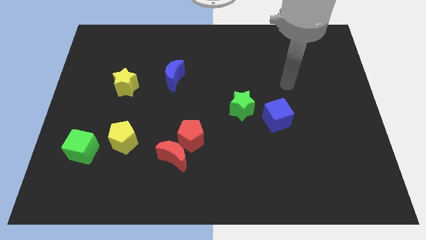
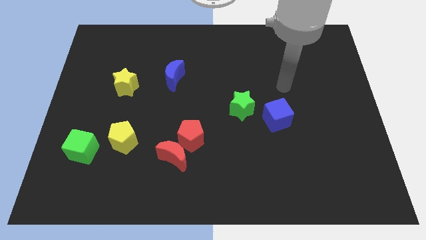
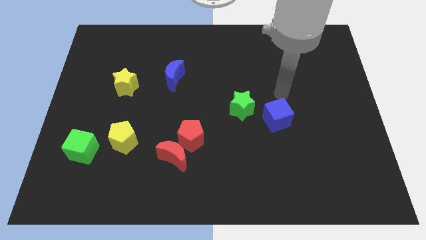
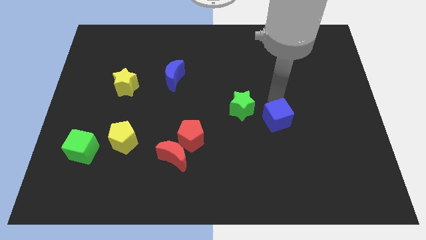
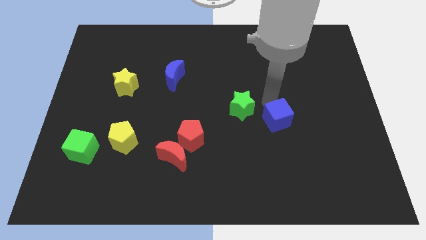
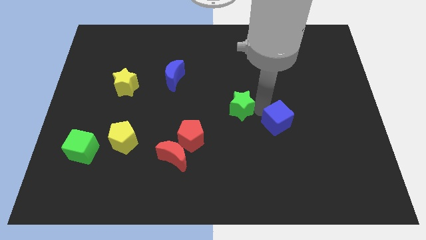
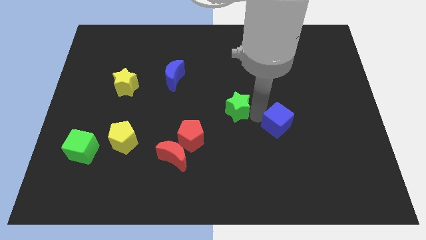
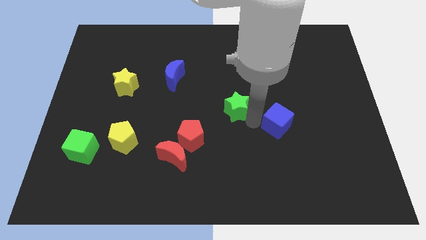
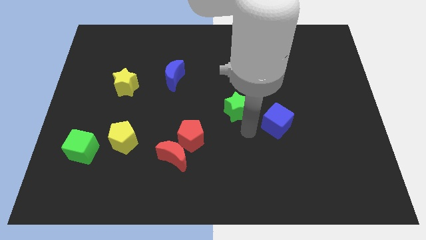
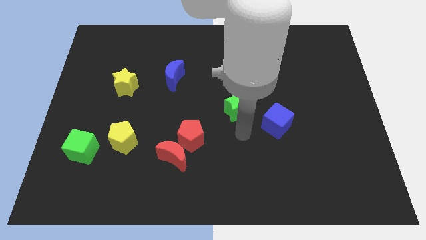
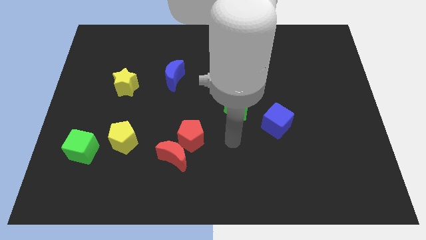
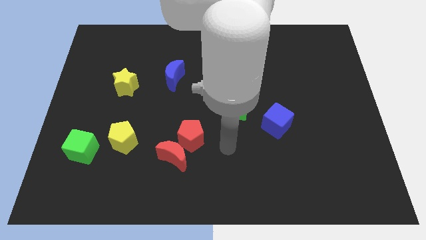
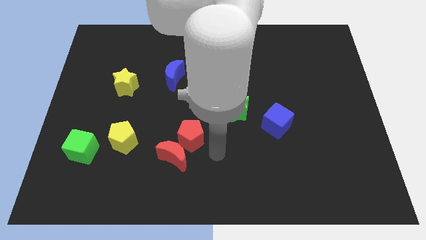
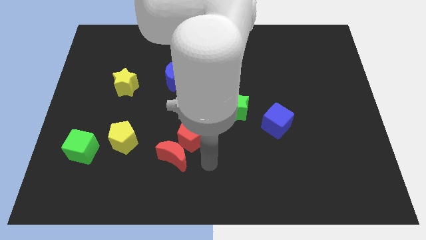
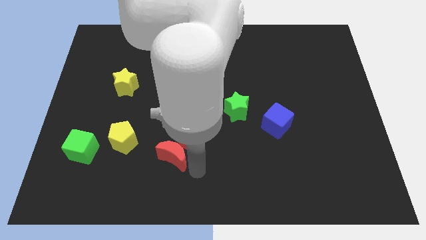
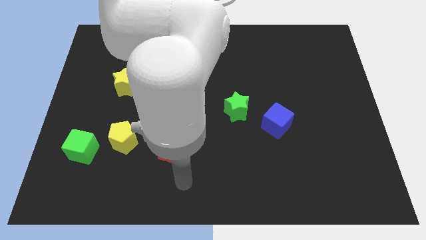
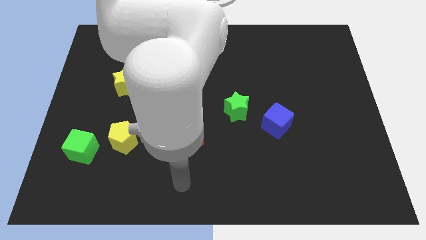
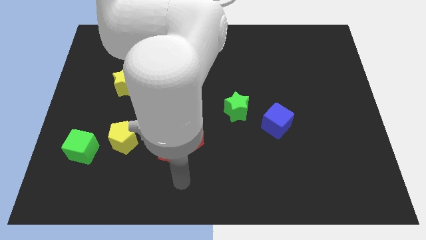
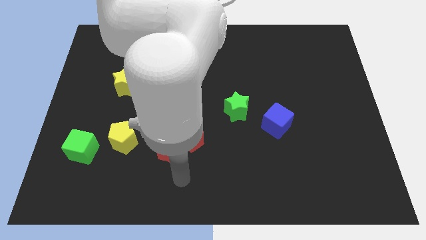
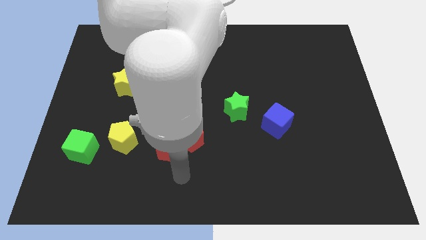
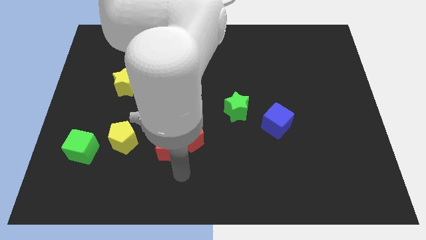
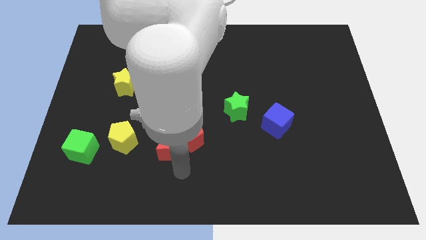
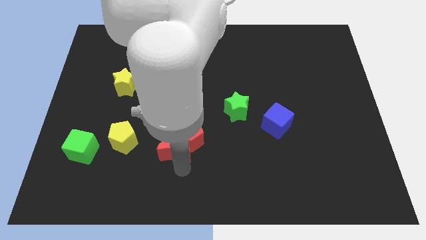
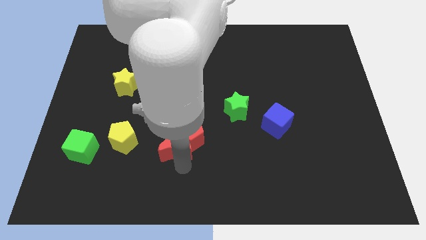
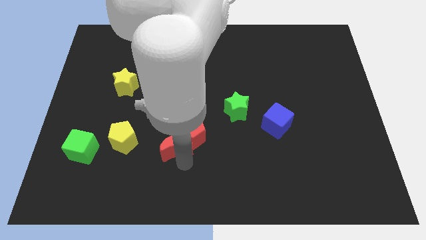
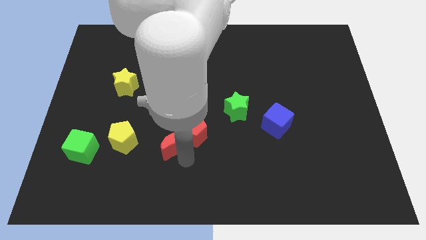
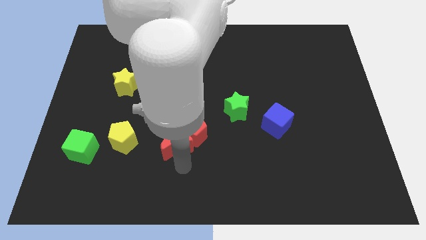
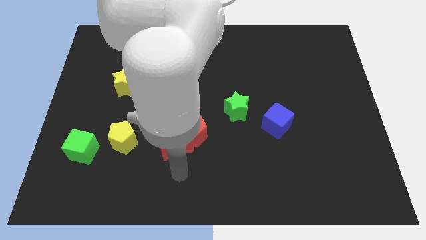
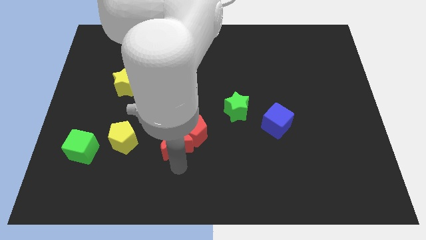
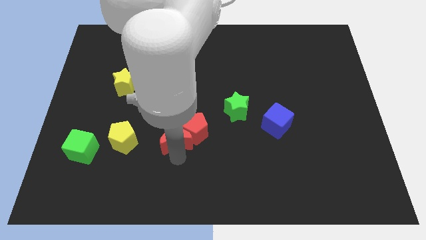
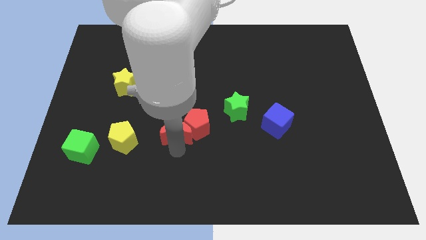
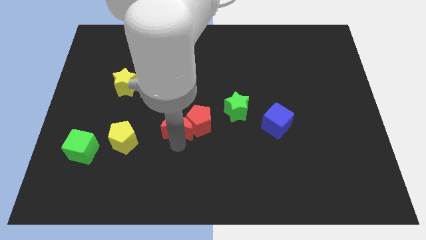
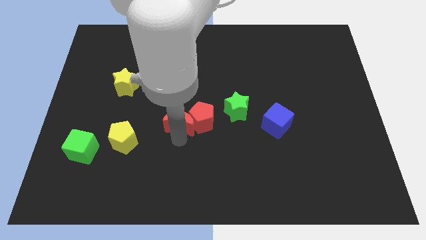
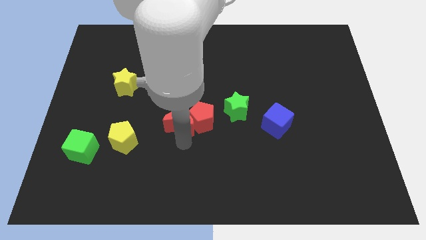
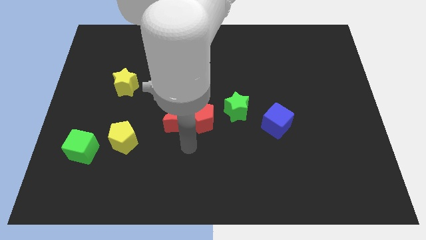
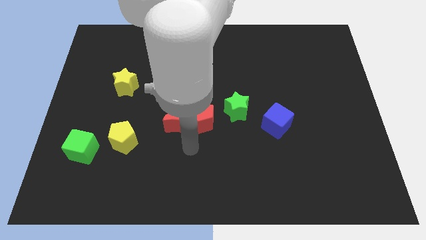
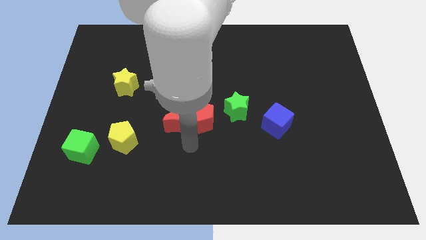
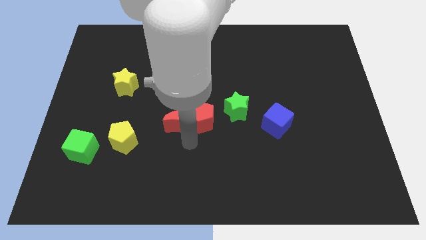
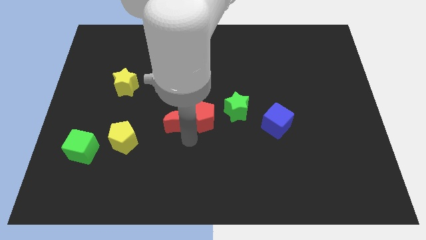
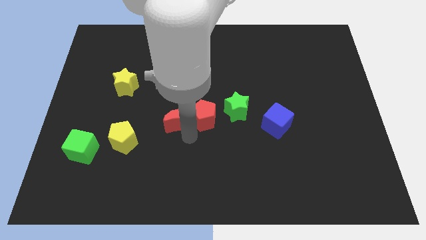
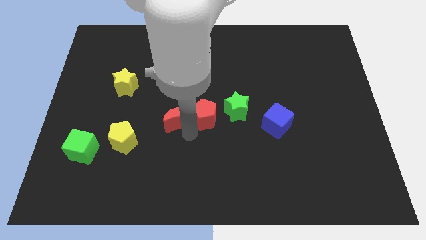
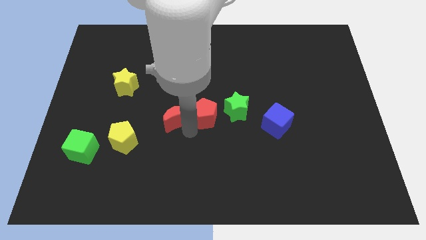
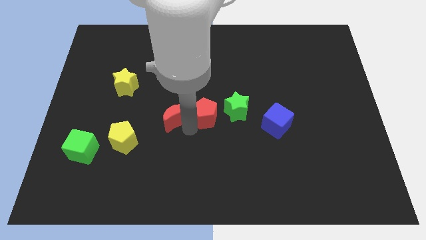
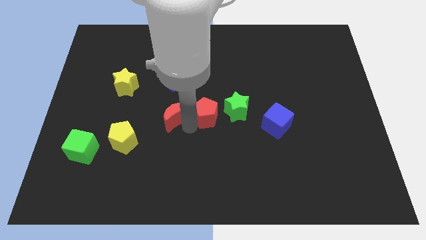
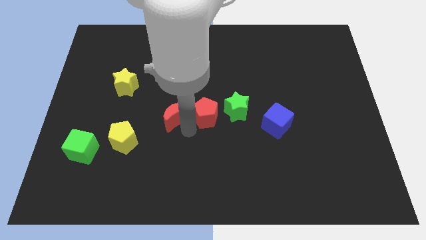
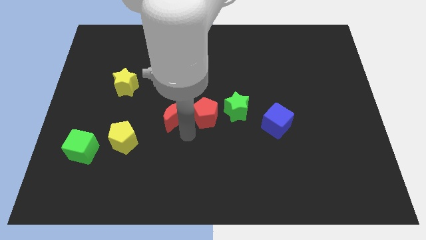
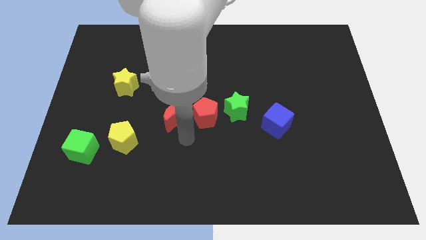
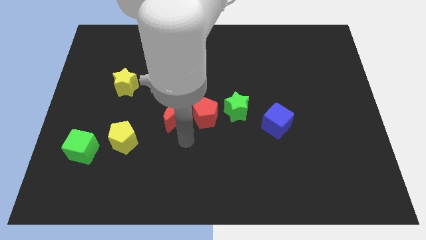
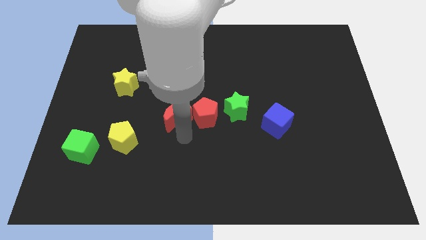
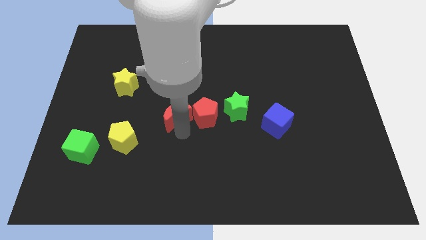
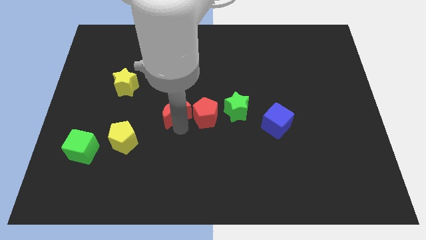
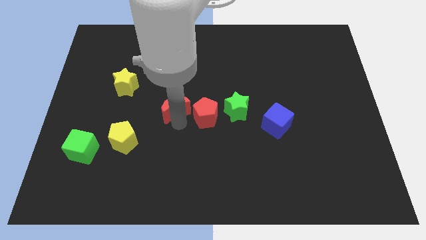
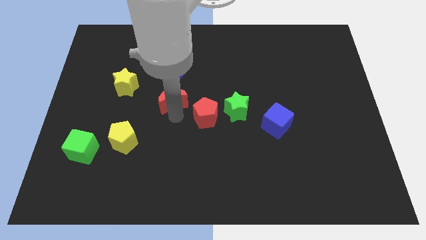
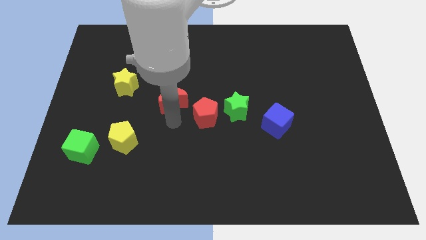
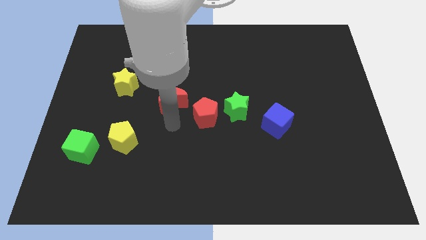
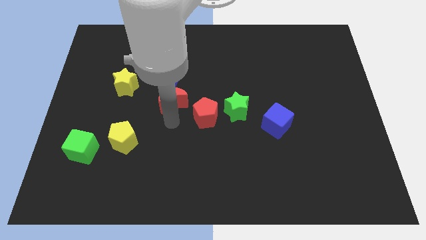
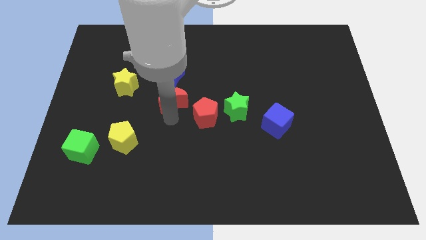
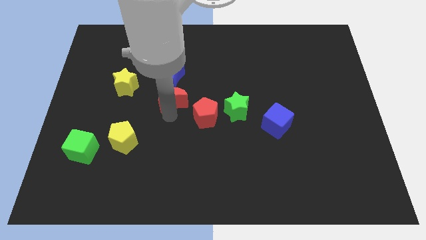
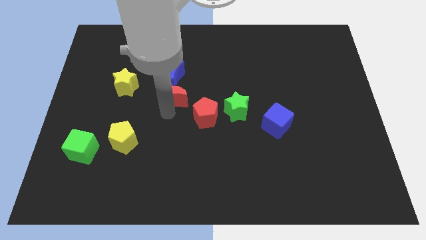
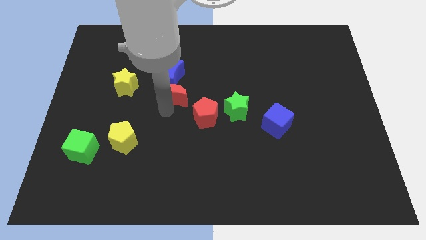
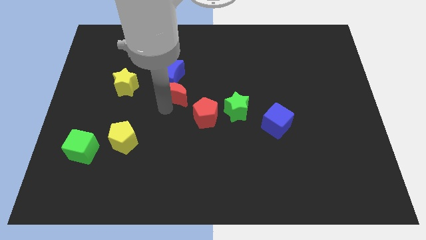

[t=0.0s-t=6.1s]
move the red moon to the blue moon
